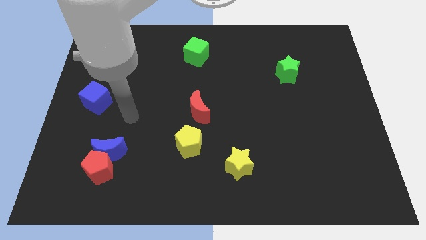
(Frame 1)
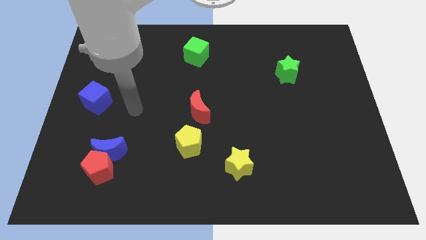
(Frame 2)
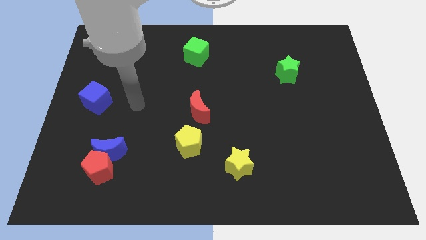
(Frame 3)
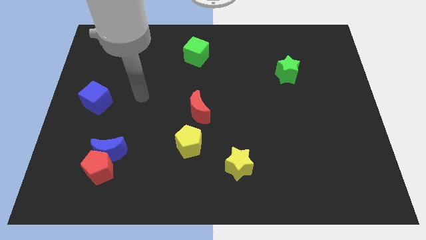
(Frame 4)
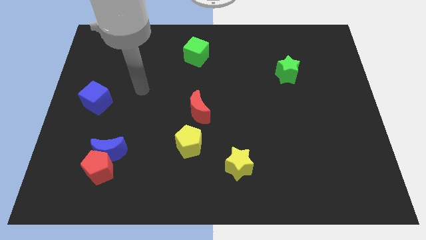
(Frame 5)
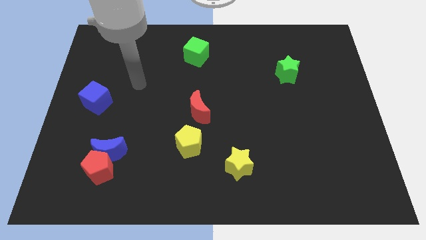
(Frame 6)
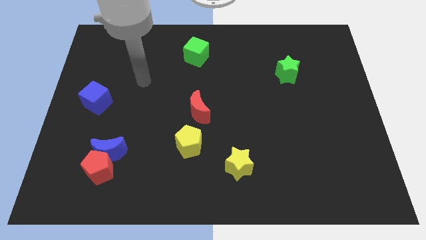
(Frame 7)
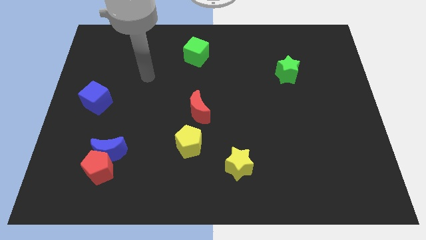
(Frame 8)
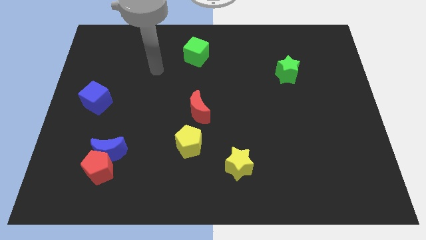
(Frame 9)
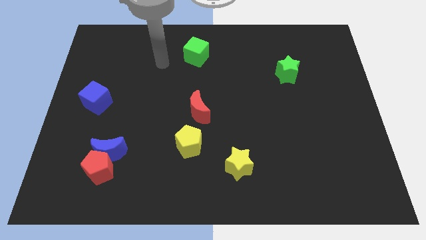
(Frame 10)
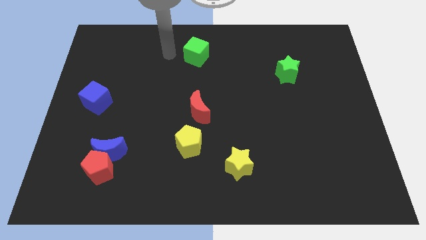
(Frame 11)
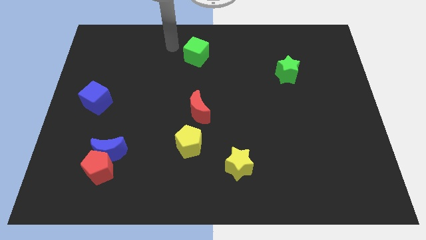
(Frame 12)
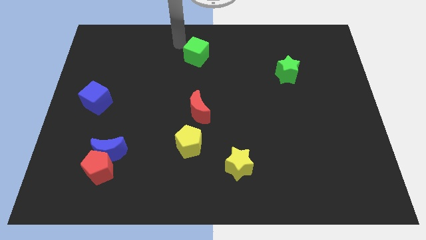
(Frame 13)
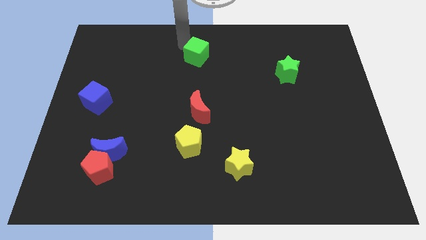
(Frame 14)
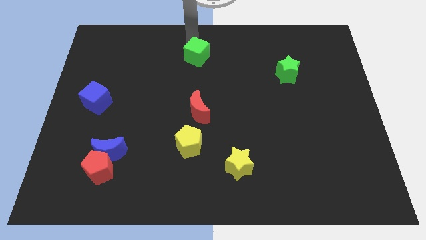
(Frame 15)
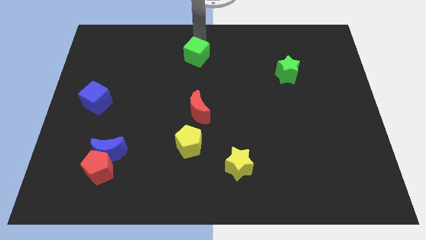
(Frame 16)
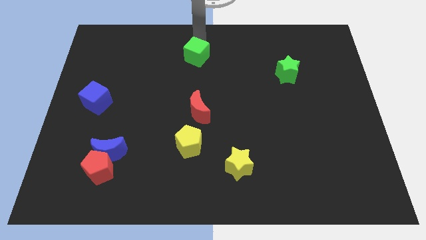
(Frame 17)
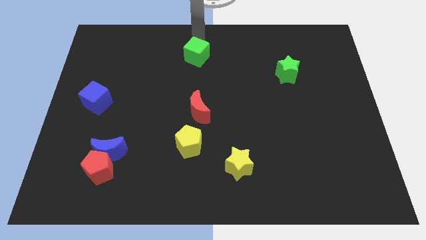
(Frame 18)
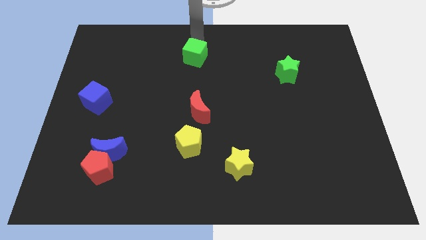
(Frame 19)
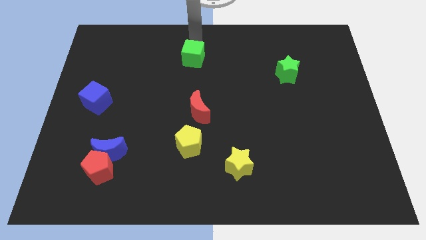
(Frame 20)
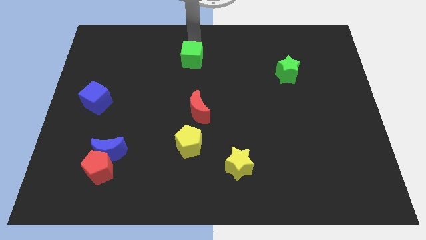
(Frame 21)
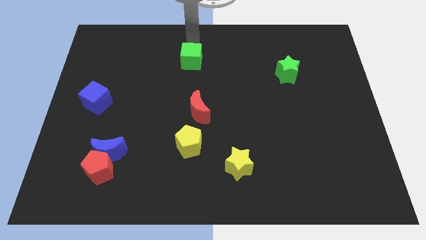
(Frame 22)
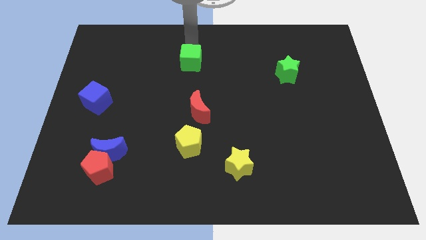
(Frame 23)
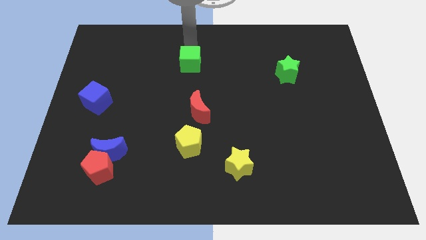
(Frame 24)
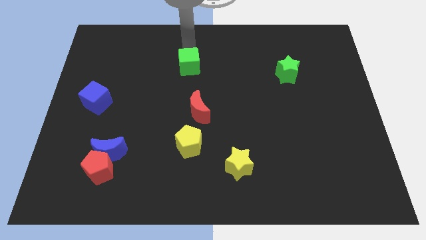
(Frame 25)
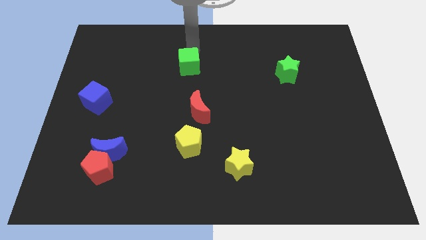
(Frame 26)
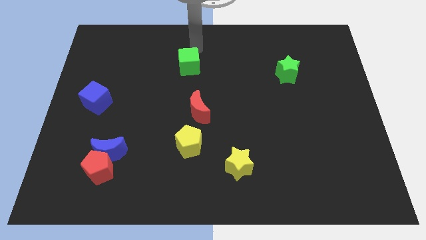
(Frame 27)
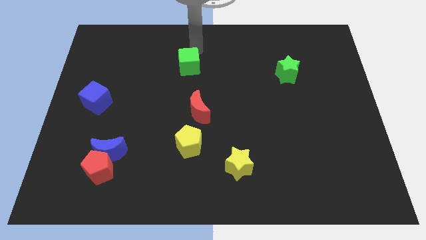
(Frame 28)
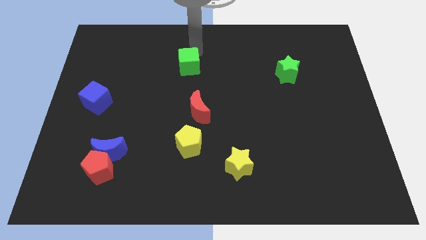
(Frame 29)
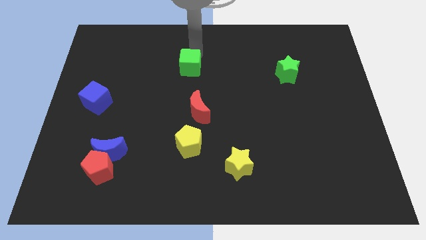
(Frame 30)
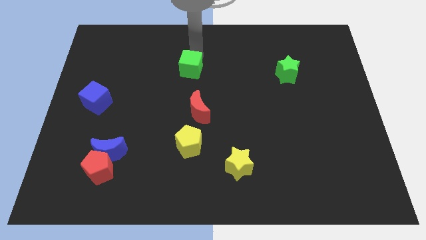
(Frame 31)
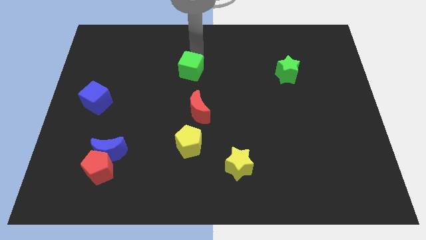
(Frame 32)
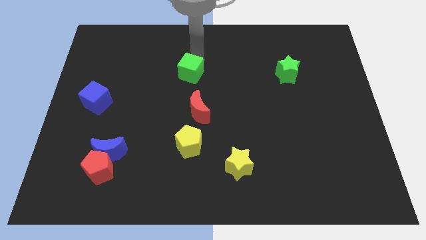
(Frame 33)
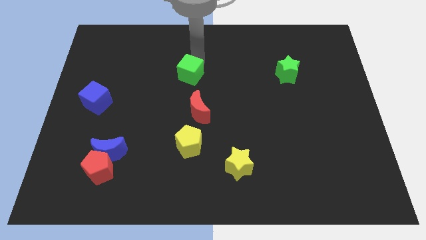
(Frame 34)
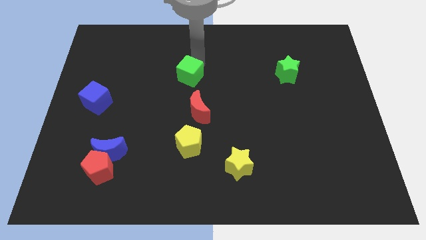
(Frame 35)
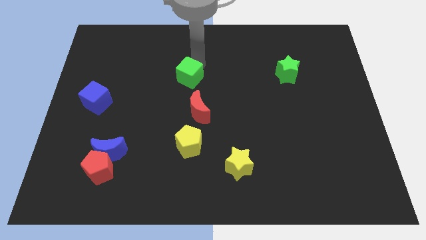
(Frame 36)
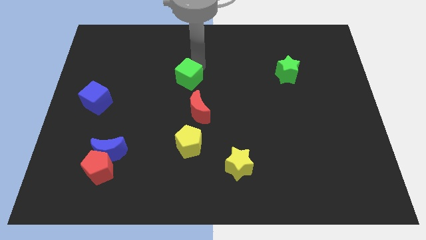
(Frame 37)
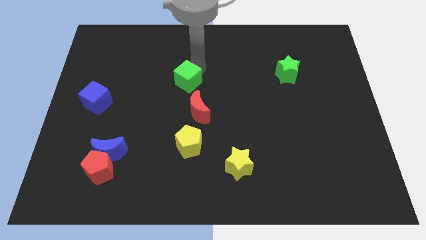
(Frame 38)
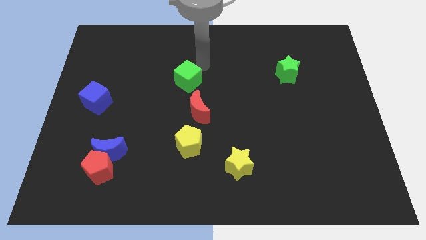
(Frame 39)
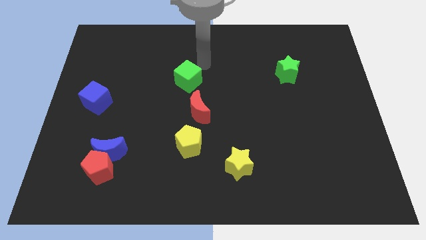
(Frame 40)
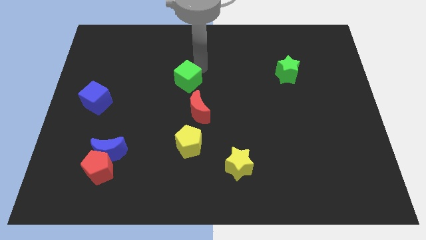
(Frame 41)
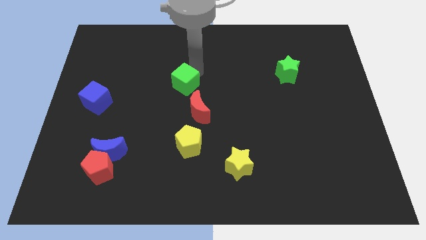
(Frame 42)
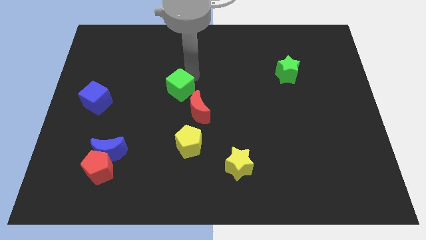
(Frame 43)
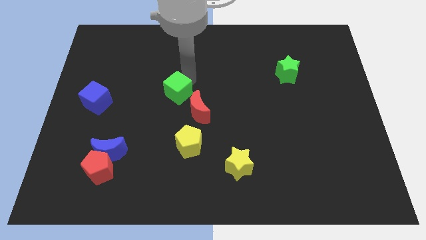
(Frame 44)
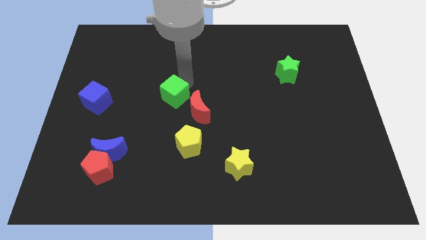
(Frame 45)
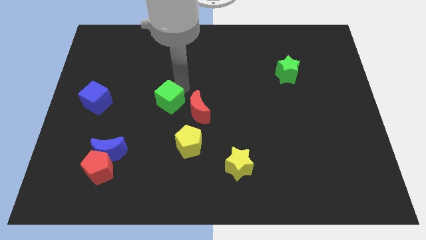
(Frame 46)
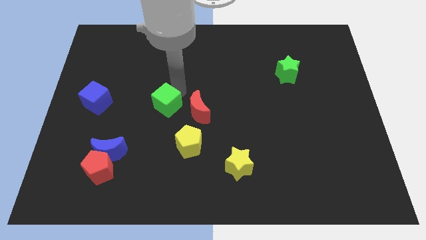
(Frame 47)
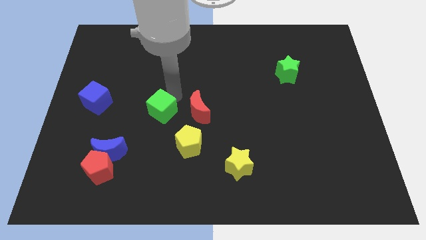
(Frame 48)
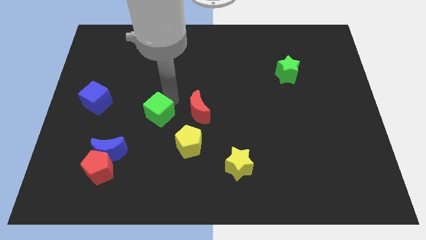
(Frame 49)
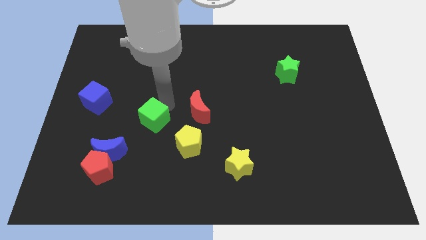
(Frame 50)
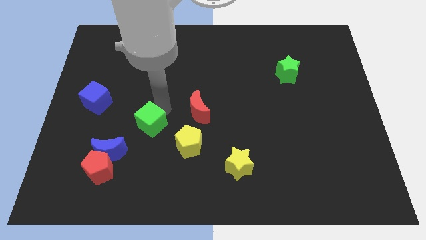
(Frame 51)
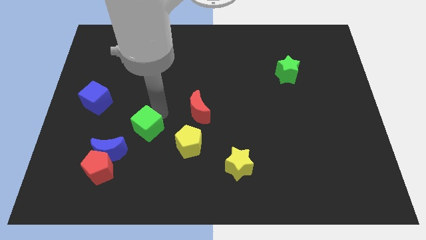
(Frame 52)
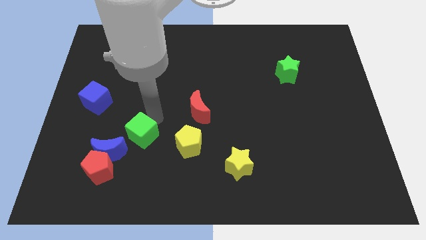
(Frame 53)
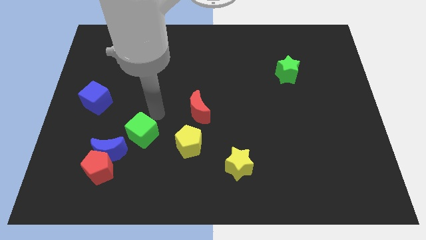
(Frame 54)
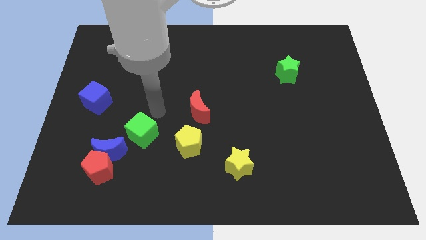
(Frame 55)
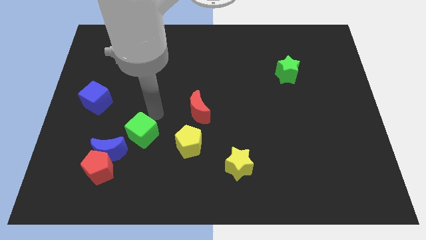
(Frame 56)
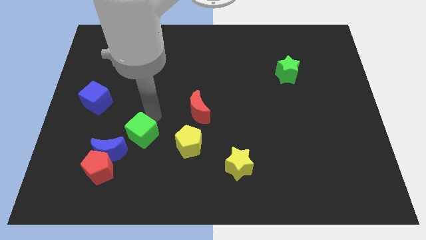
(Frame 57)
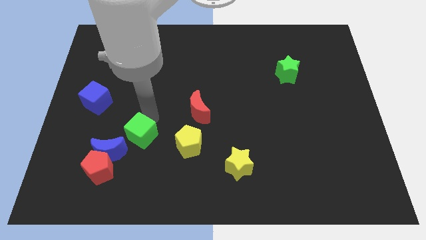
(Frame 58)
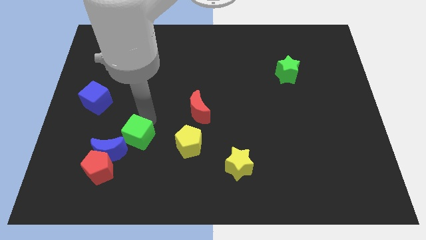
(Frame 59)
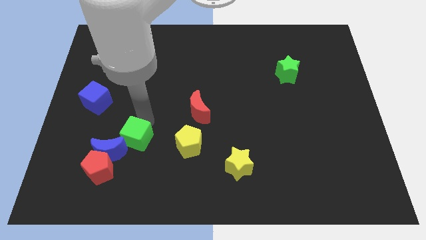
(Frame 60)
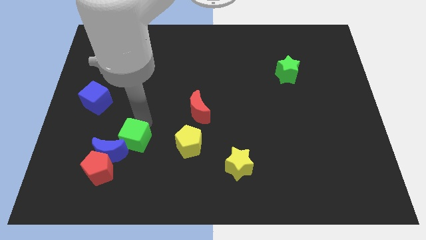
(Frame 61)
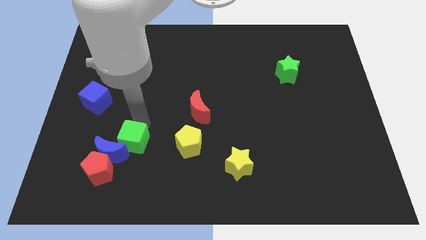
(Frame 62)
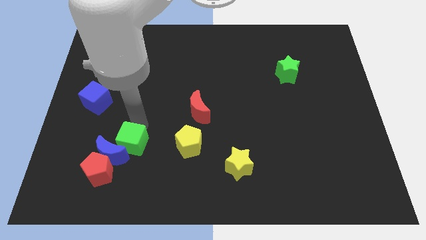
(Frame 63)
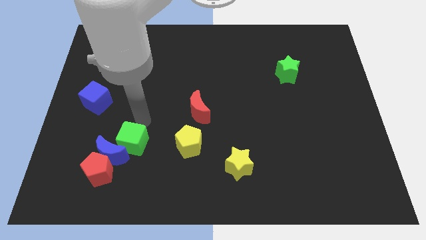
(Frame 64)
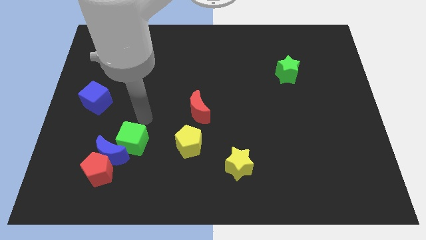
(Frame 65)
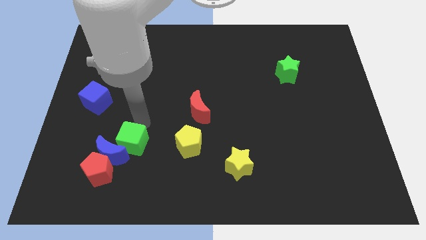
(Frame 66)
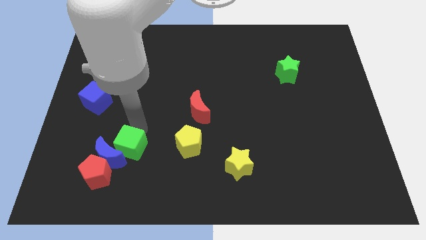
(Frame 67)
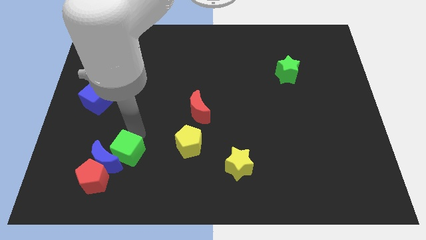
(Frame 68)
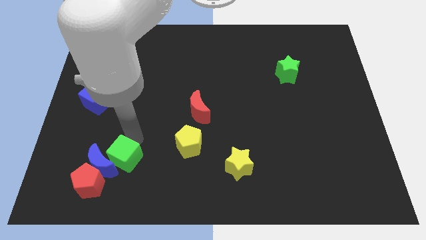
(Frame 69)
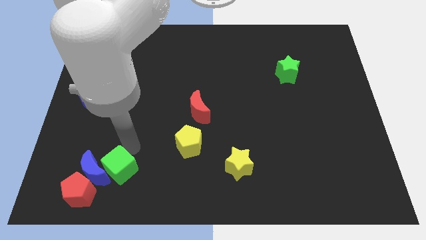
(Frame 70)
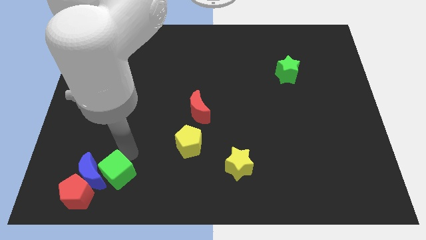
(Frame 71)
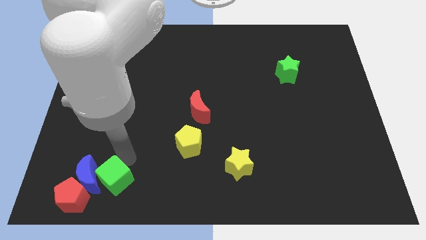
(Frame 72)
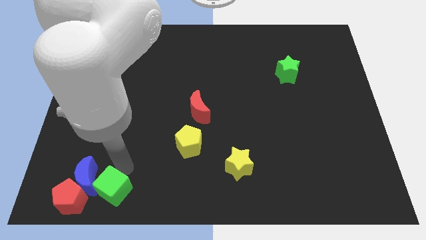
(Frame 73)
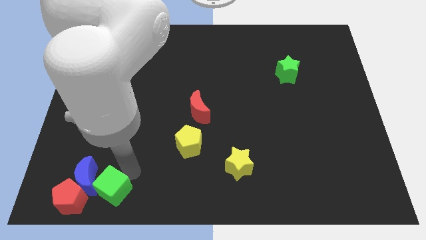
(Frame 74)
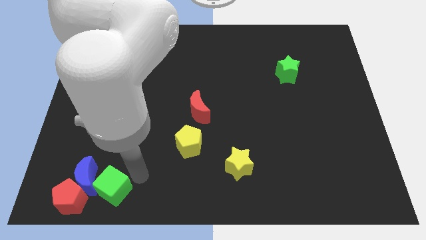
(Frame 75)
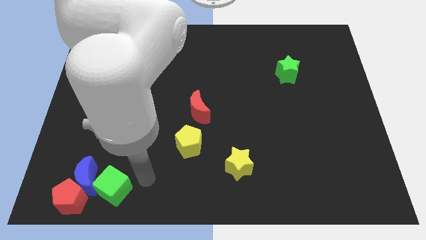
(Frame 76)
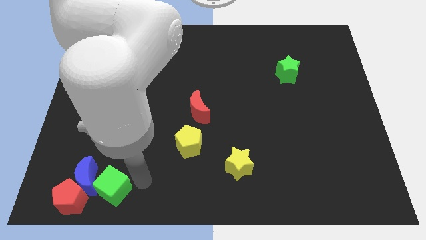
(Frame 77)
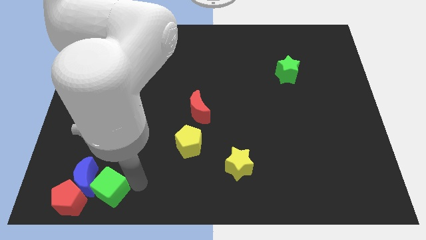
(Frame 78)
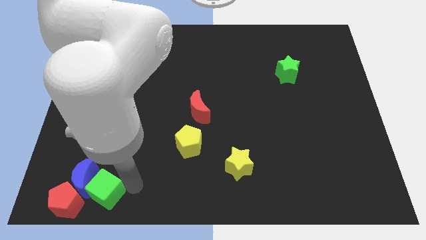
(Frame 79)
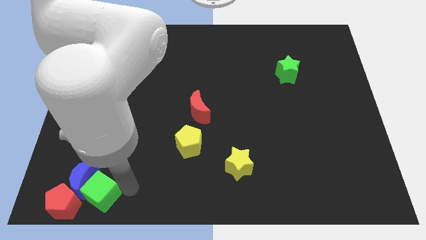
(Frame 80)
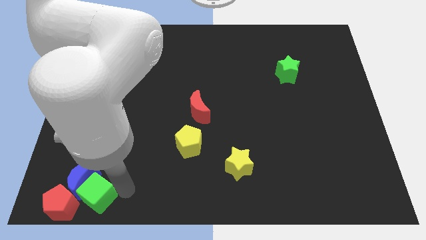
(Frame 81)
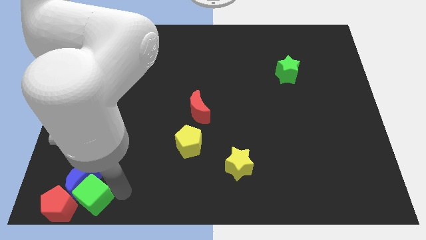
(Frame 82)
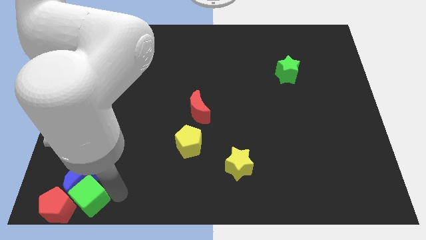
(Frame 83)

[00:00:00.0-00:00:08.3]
slide the green cube next to the red pentagon
